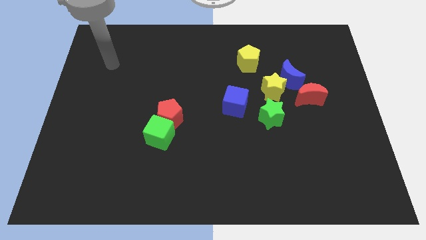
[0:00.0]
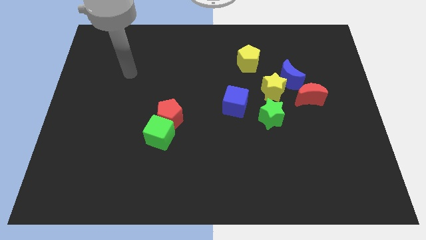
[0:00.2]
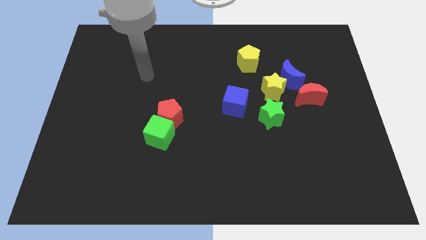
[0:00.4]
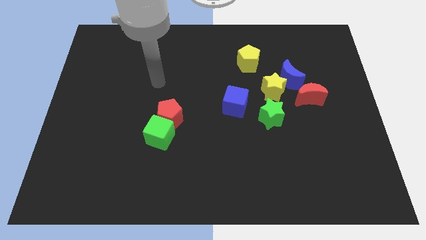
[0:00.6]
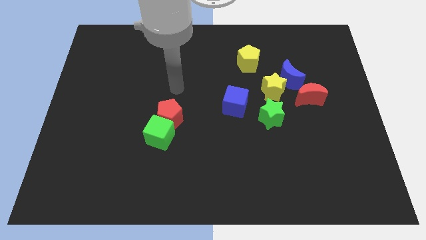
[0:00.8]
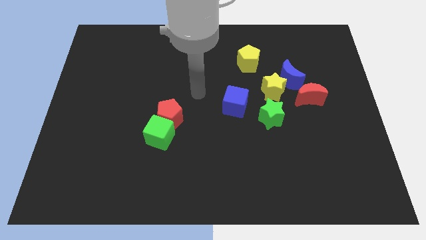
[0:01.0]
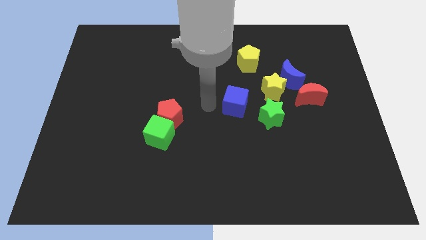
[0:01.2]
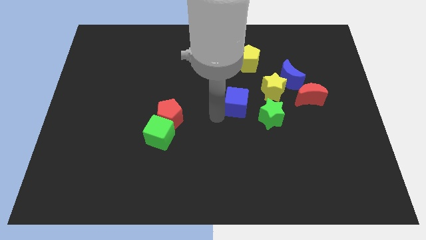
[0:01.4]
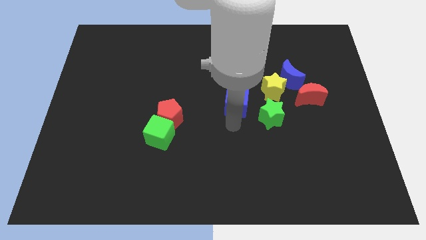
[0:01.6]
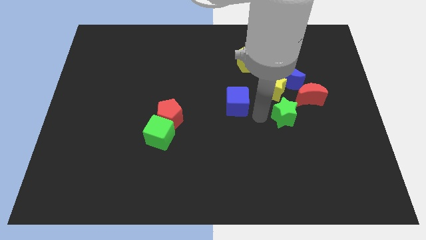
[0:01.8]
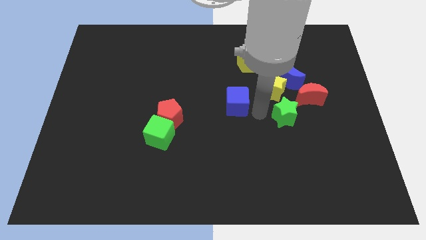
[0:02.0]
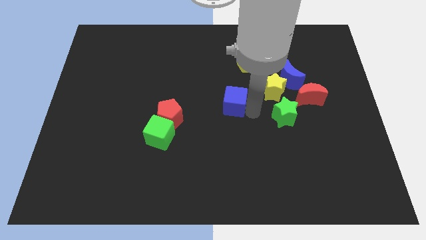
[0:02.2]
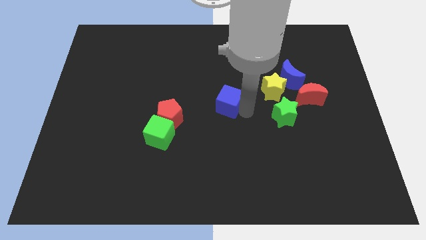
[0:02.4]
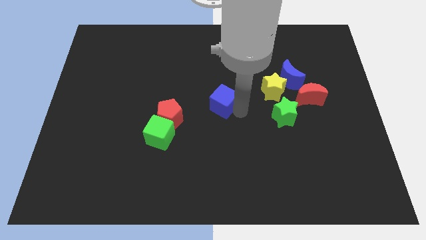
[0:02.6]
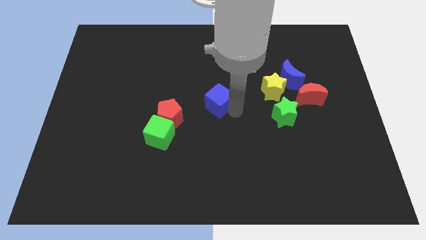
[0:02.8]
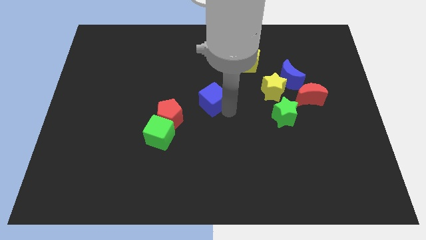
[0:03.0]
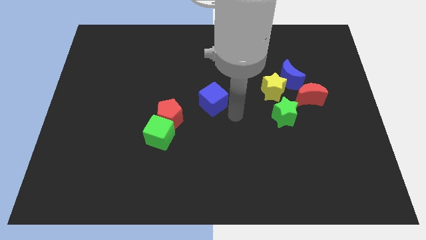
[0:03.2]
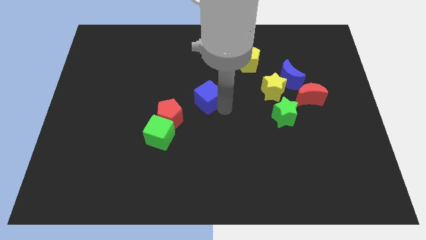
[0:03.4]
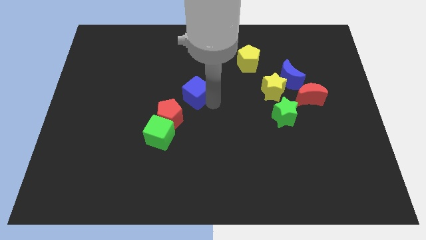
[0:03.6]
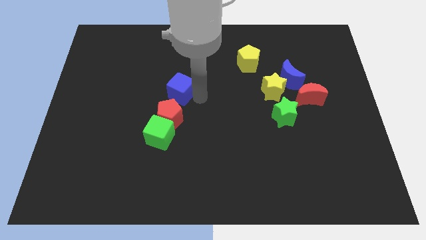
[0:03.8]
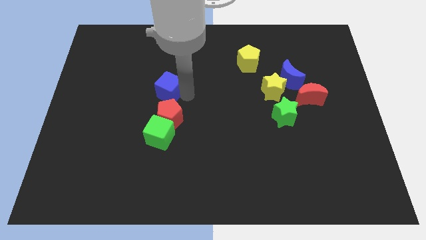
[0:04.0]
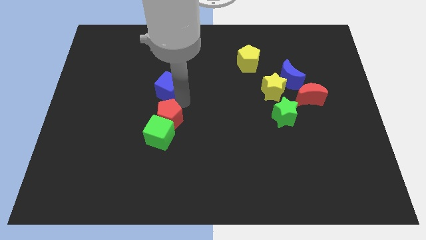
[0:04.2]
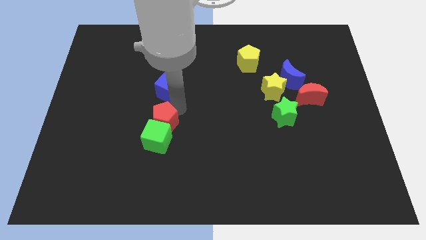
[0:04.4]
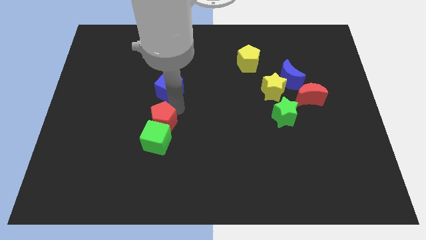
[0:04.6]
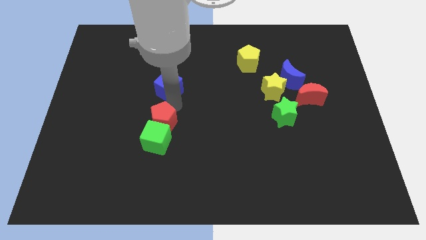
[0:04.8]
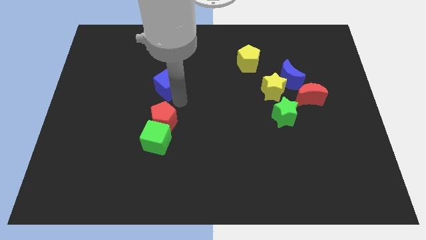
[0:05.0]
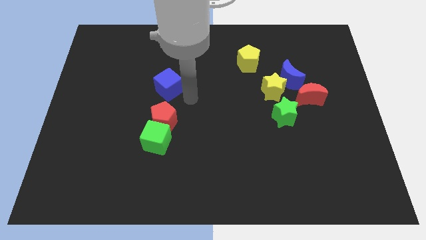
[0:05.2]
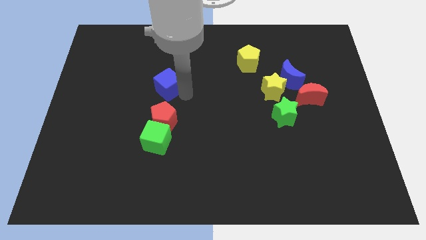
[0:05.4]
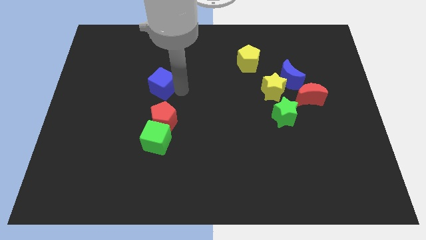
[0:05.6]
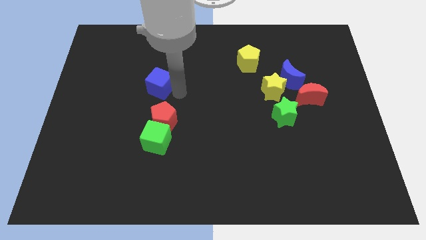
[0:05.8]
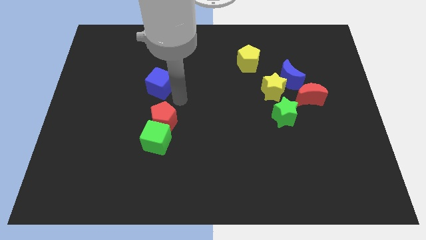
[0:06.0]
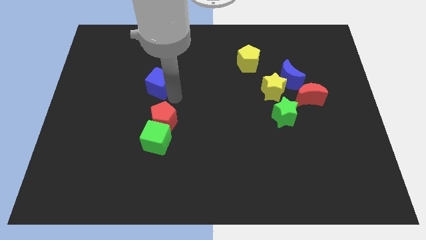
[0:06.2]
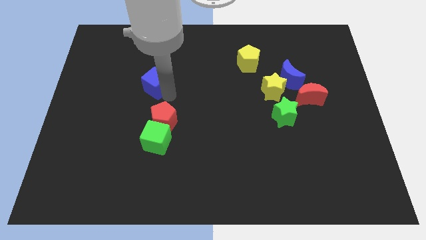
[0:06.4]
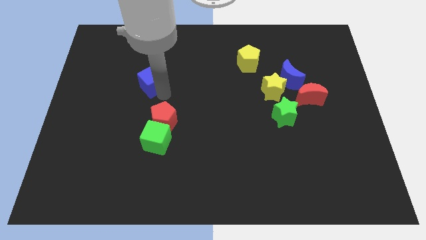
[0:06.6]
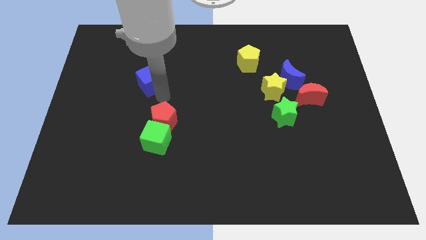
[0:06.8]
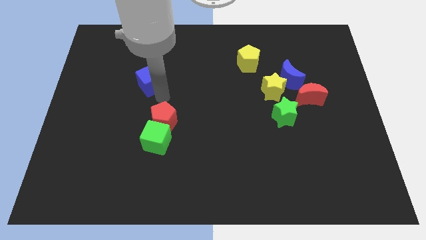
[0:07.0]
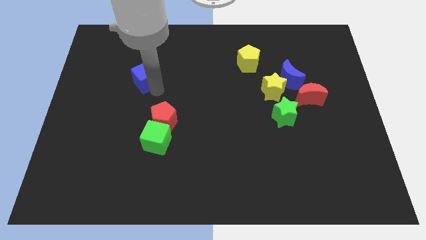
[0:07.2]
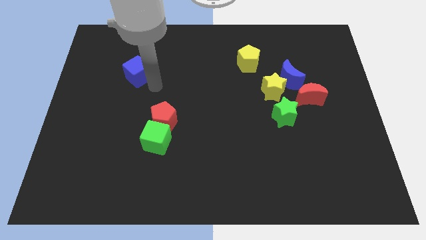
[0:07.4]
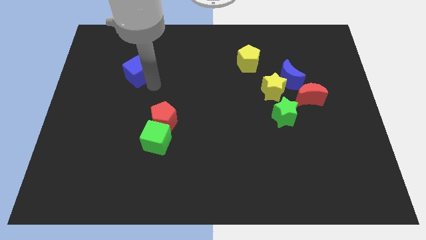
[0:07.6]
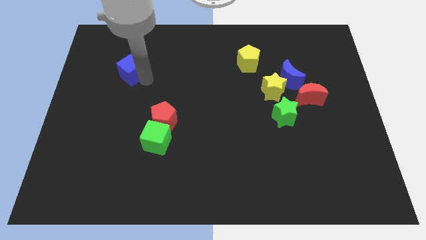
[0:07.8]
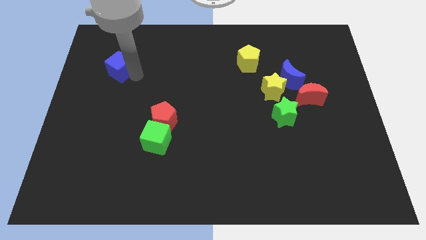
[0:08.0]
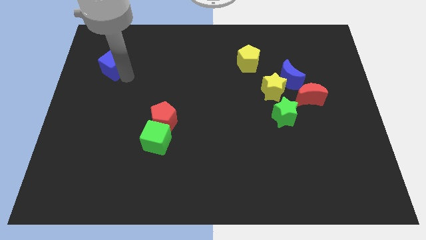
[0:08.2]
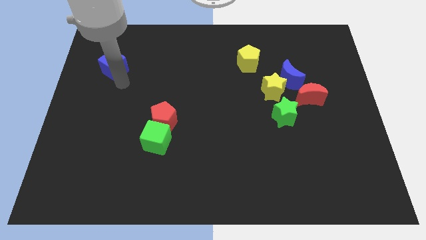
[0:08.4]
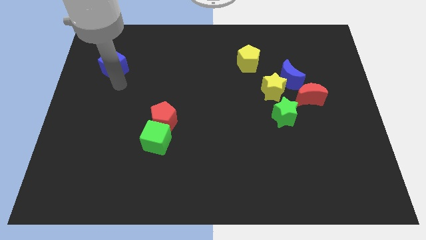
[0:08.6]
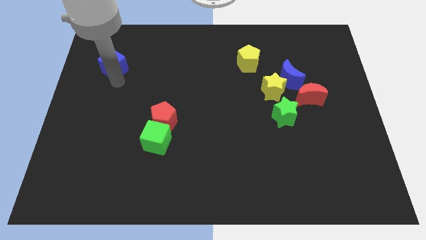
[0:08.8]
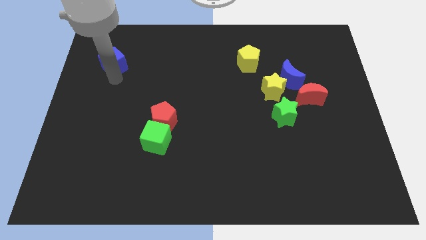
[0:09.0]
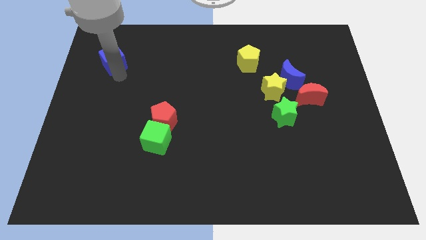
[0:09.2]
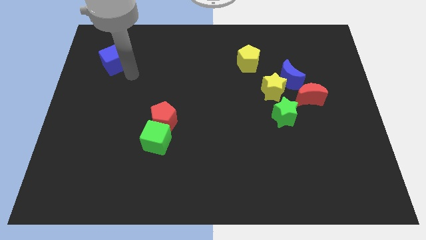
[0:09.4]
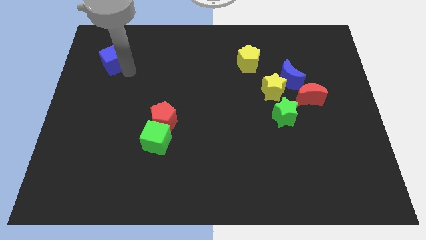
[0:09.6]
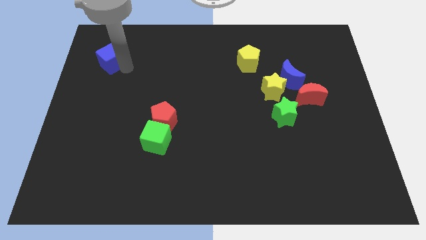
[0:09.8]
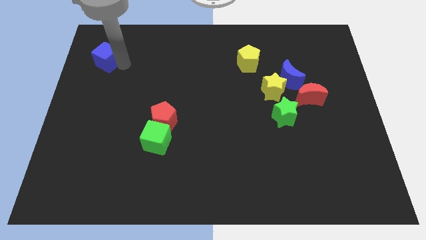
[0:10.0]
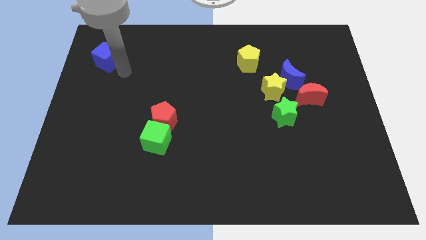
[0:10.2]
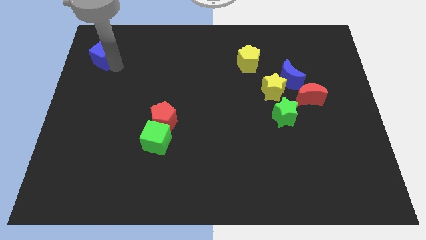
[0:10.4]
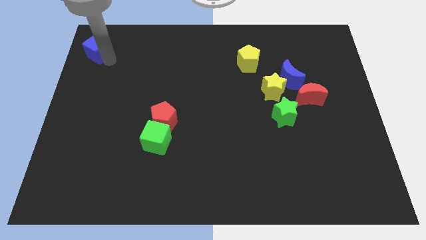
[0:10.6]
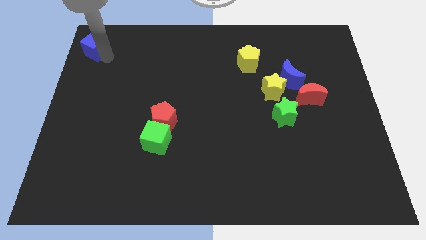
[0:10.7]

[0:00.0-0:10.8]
put the blue cube to the top left

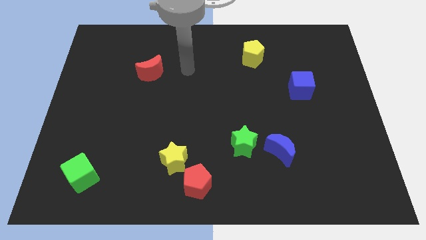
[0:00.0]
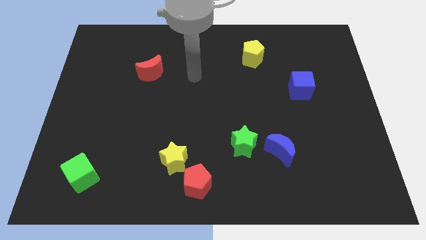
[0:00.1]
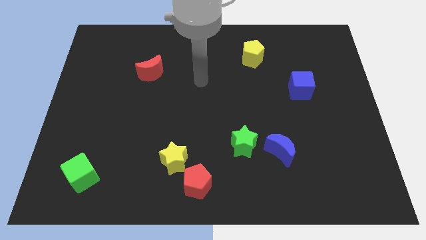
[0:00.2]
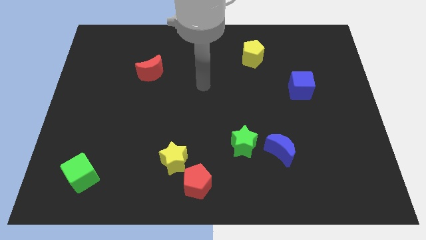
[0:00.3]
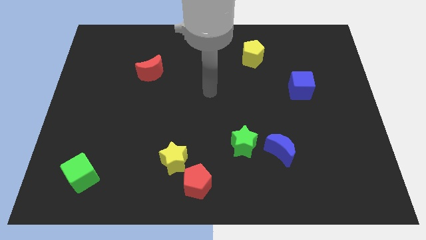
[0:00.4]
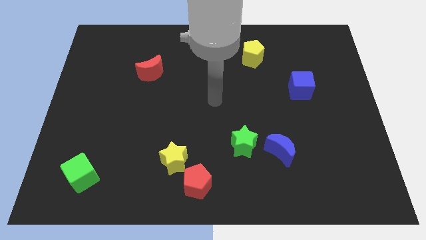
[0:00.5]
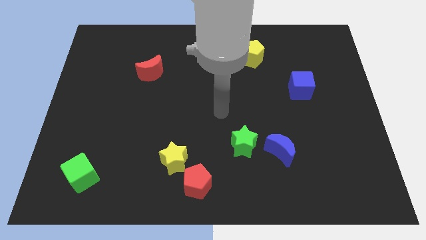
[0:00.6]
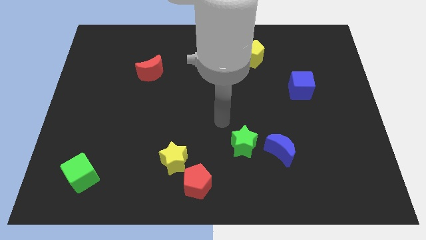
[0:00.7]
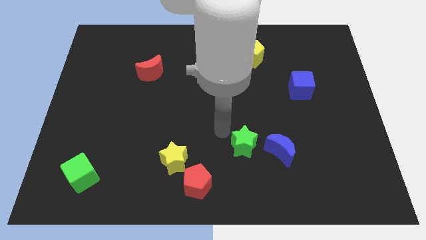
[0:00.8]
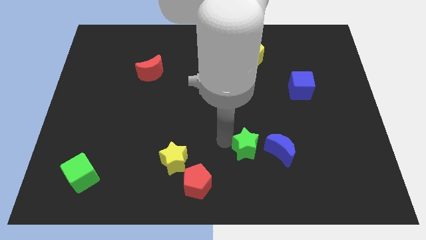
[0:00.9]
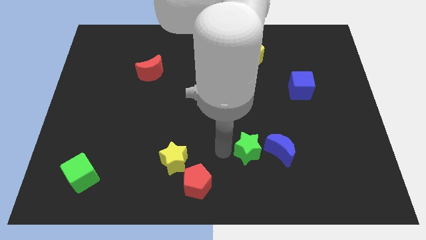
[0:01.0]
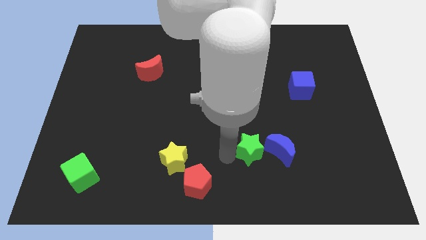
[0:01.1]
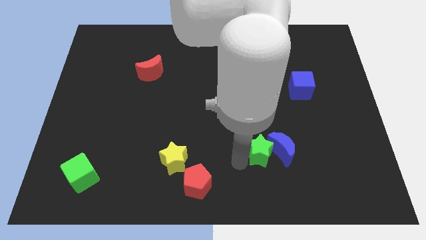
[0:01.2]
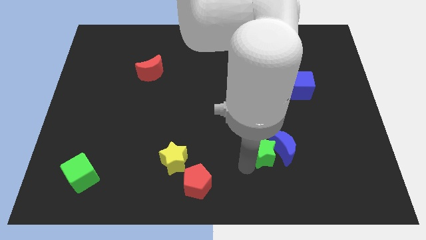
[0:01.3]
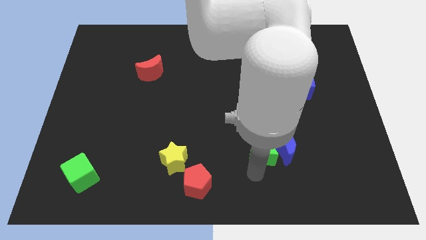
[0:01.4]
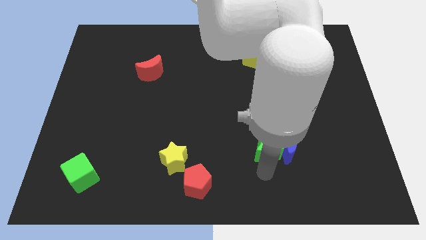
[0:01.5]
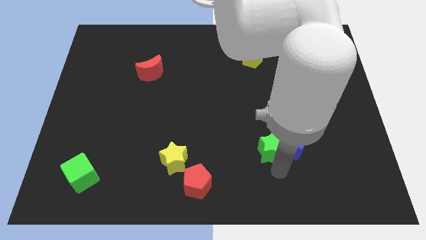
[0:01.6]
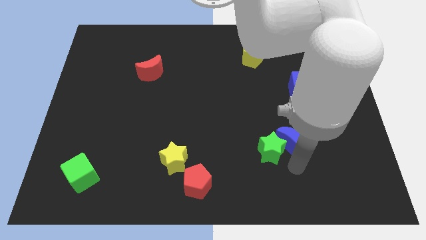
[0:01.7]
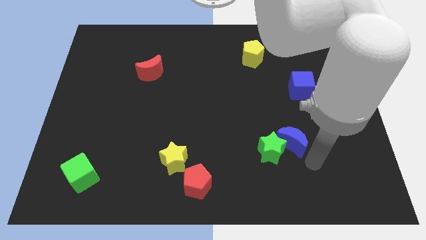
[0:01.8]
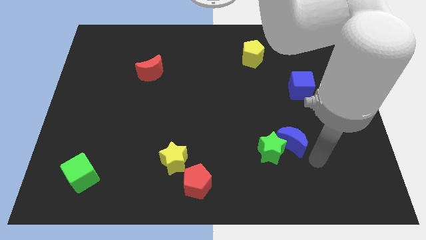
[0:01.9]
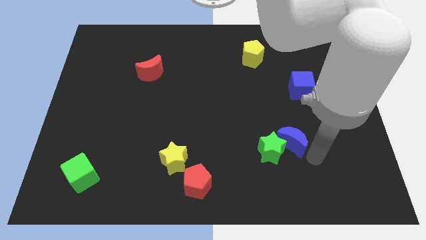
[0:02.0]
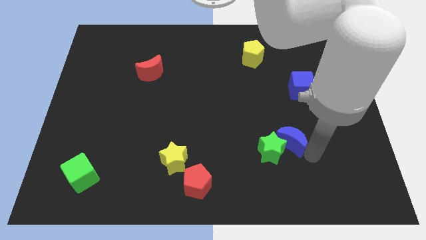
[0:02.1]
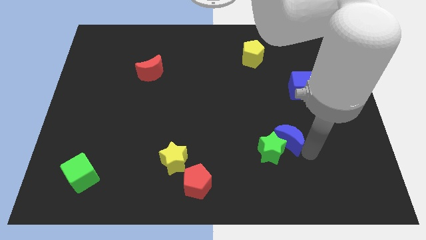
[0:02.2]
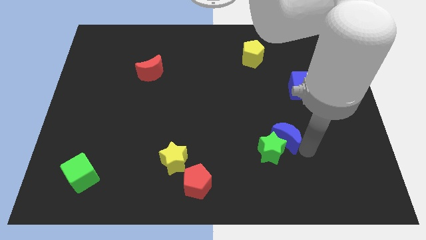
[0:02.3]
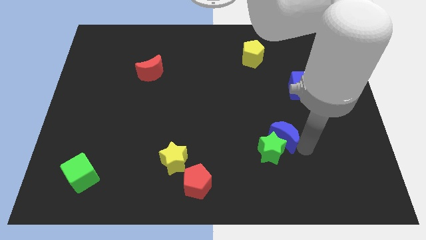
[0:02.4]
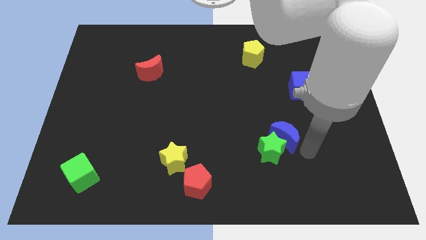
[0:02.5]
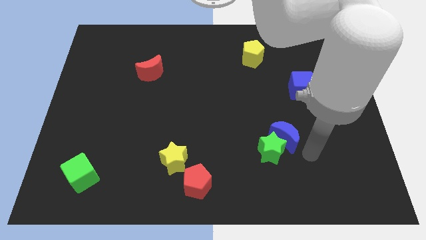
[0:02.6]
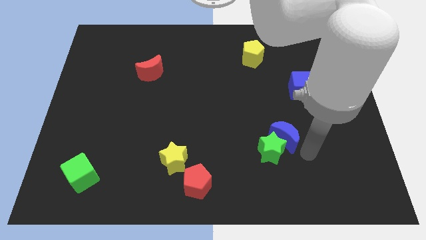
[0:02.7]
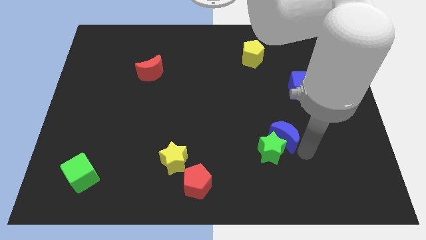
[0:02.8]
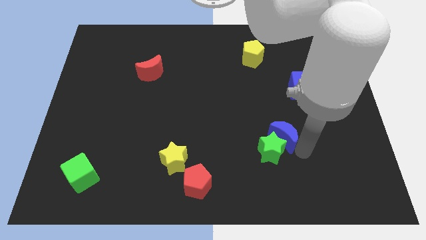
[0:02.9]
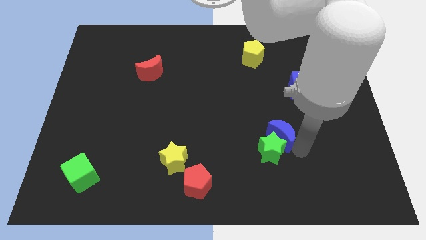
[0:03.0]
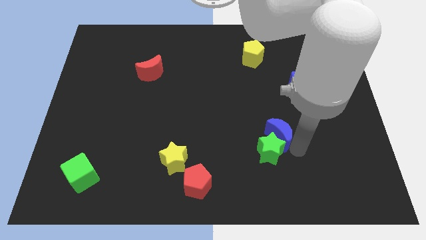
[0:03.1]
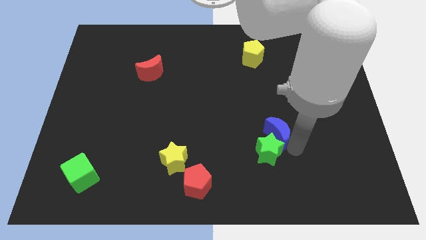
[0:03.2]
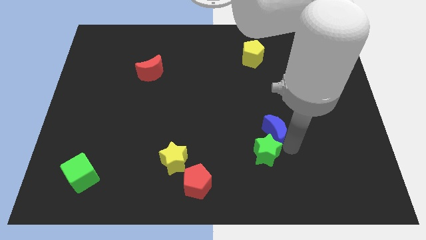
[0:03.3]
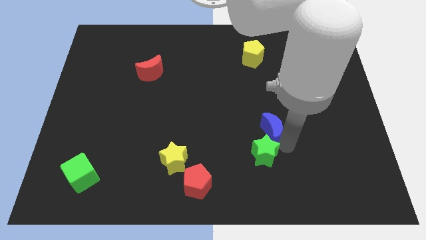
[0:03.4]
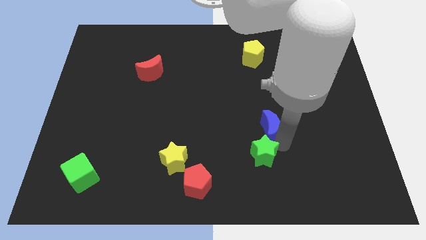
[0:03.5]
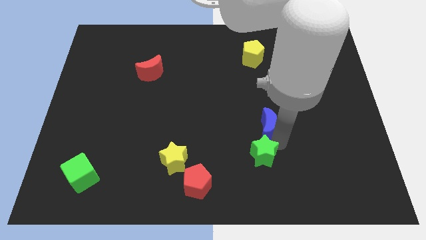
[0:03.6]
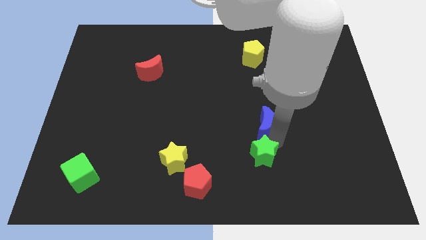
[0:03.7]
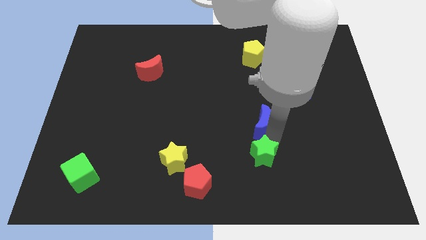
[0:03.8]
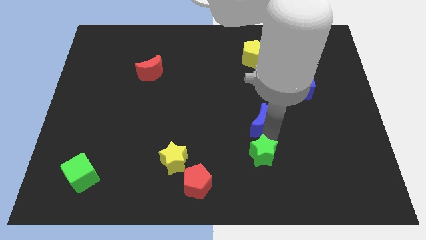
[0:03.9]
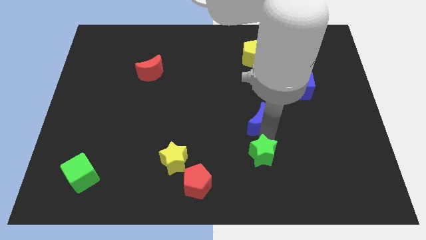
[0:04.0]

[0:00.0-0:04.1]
push the blue moon to the center
